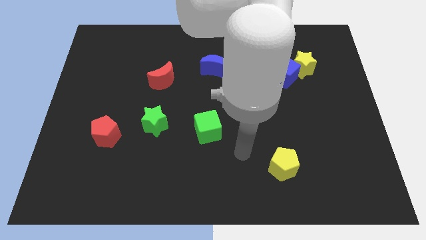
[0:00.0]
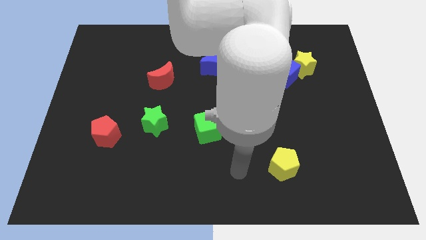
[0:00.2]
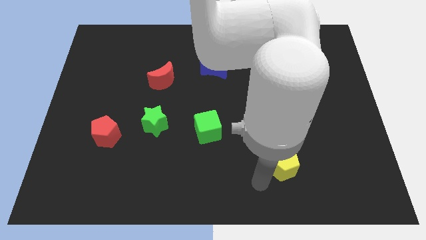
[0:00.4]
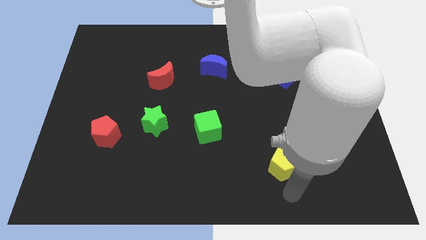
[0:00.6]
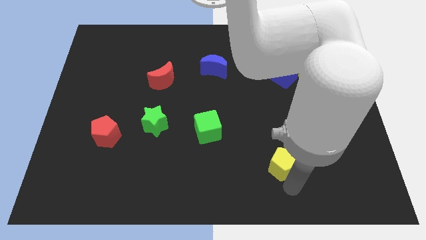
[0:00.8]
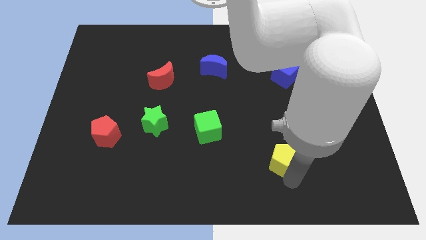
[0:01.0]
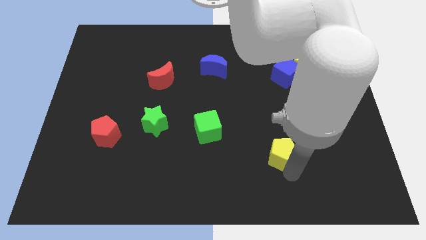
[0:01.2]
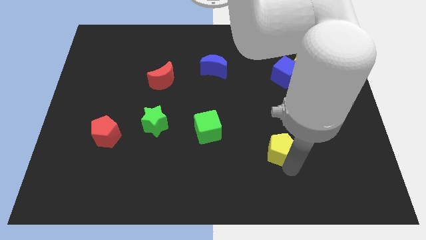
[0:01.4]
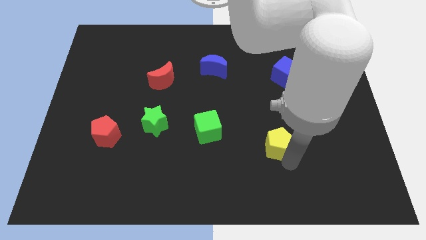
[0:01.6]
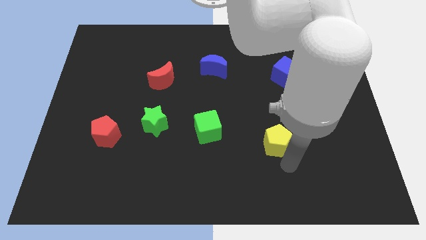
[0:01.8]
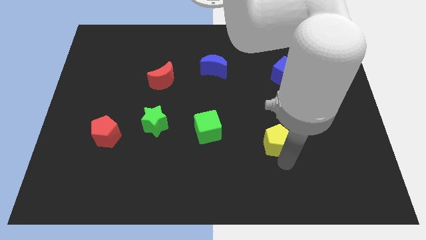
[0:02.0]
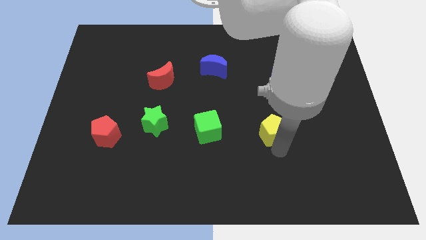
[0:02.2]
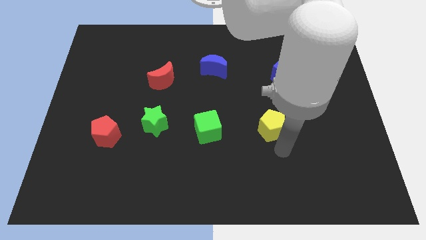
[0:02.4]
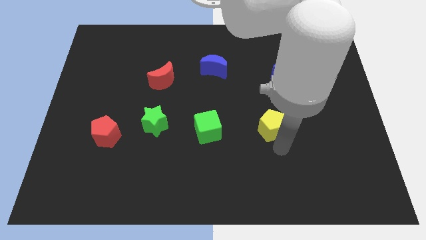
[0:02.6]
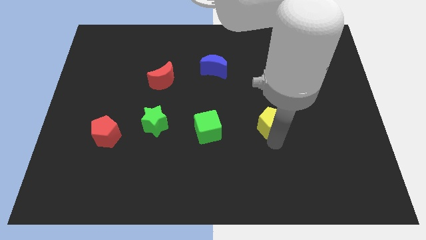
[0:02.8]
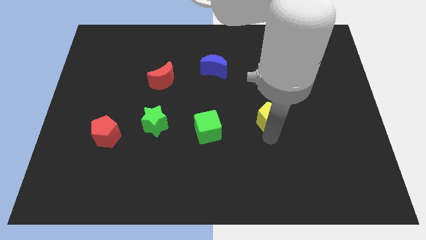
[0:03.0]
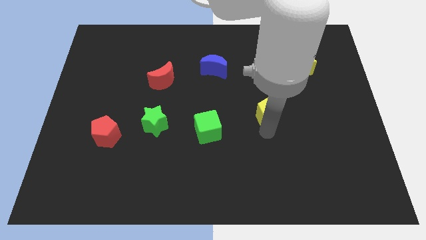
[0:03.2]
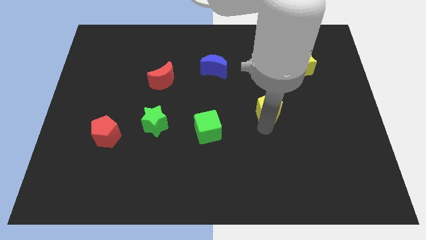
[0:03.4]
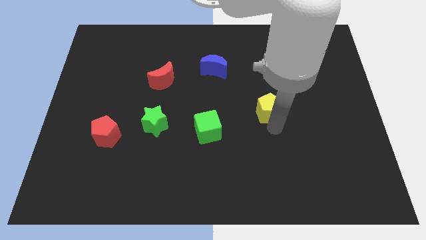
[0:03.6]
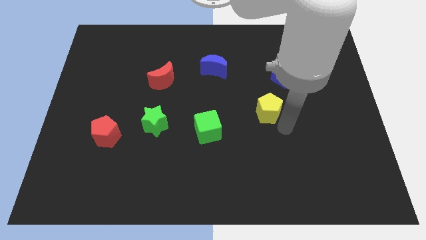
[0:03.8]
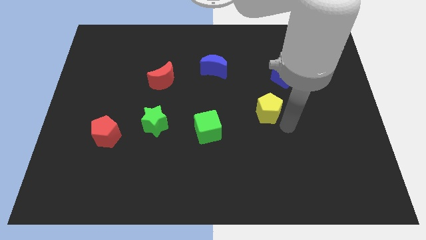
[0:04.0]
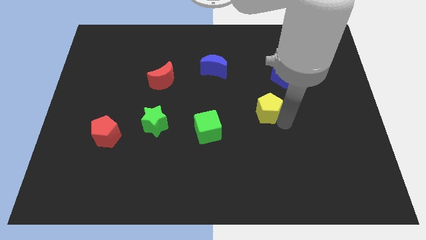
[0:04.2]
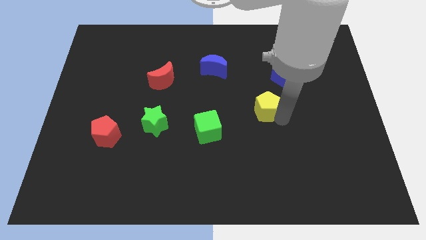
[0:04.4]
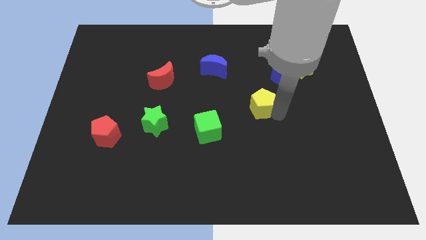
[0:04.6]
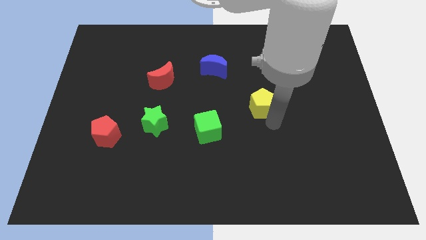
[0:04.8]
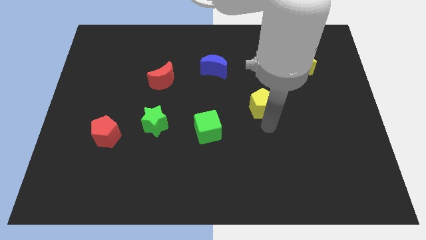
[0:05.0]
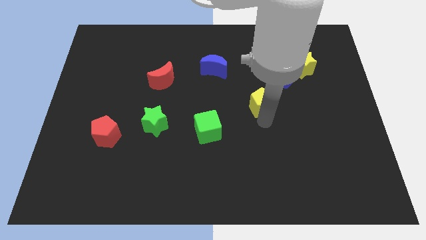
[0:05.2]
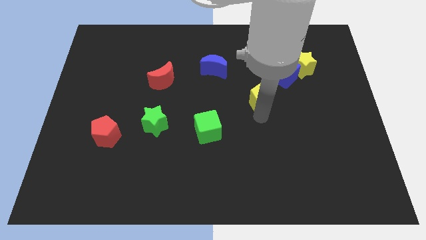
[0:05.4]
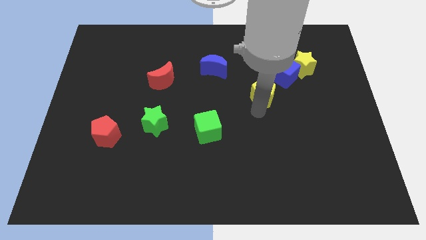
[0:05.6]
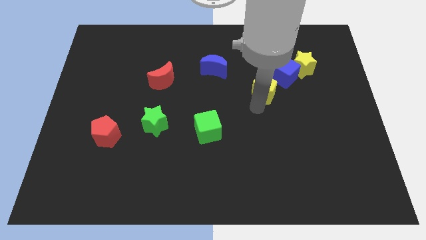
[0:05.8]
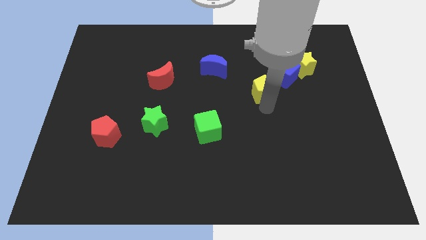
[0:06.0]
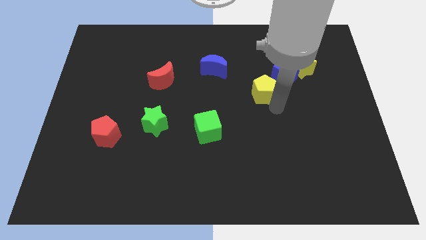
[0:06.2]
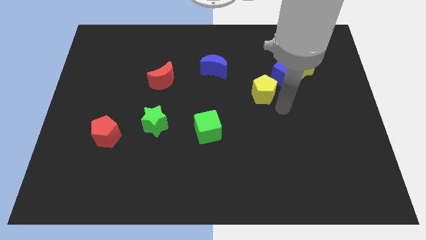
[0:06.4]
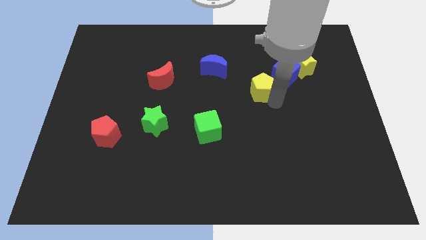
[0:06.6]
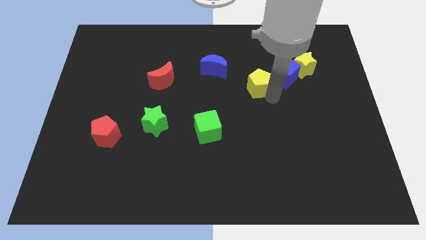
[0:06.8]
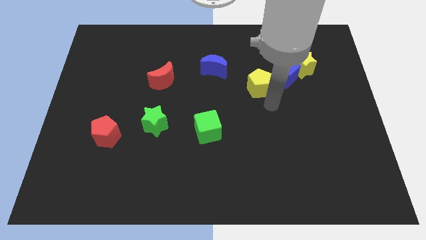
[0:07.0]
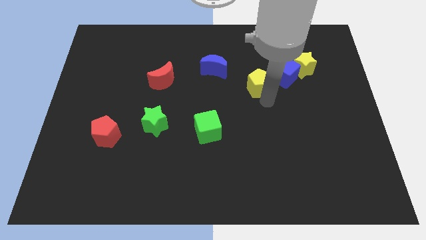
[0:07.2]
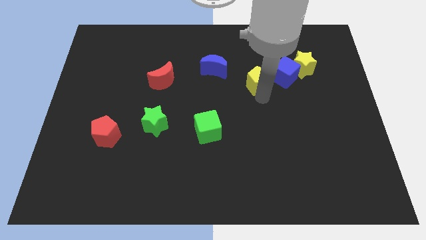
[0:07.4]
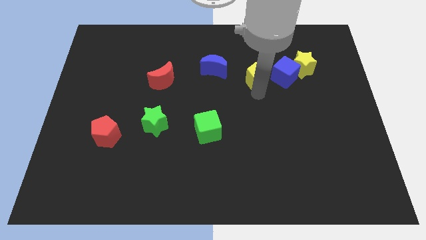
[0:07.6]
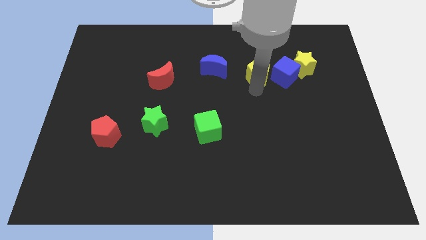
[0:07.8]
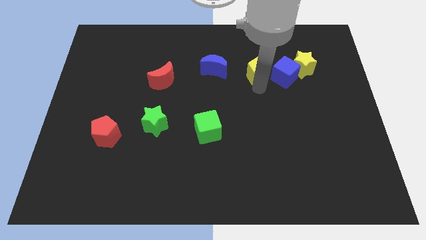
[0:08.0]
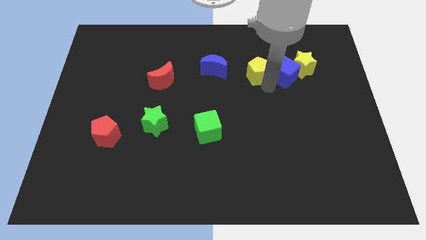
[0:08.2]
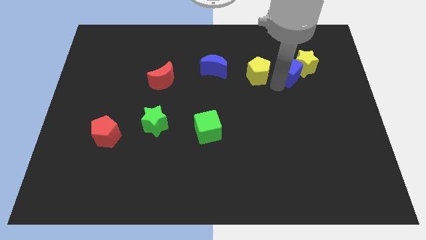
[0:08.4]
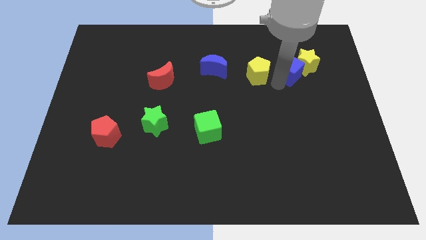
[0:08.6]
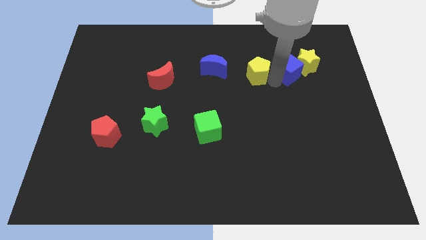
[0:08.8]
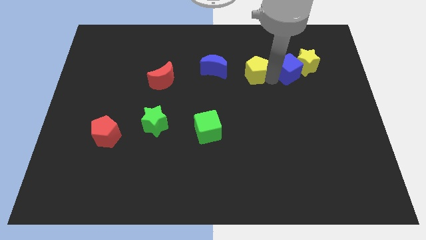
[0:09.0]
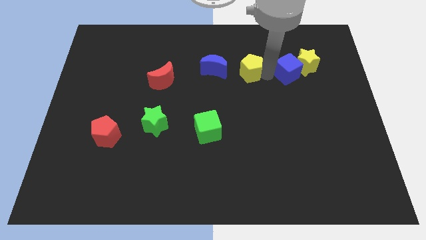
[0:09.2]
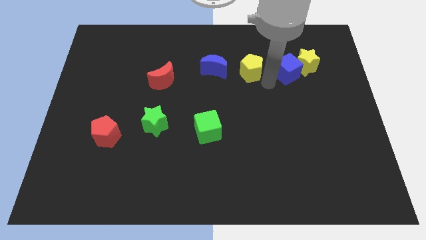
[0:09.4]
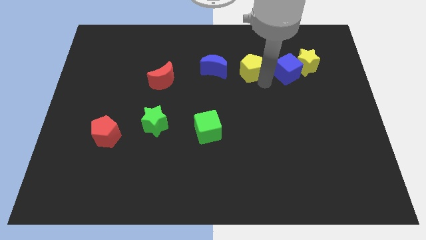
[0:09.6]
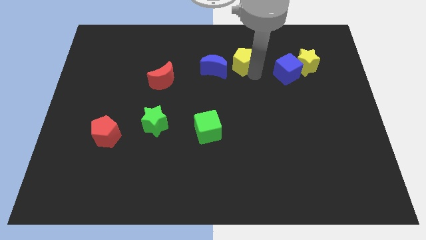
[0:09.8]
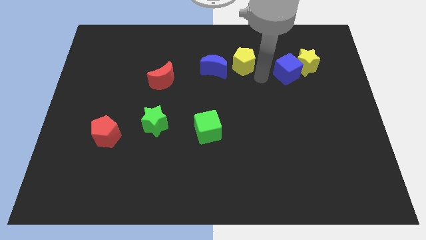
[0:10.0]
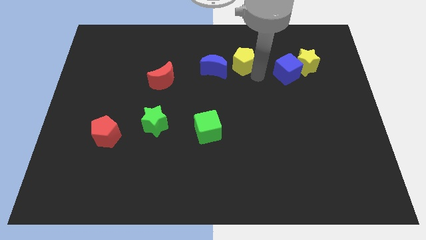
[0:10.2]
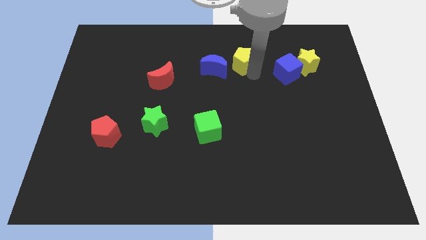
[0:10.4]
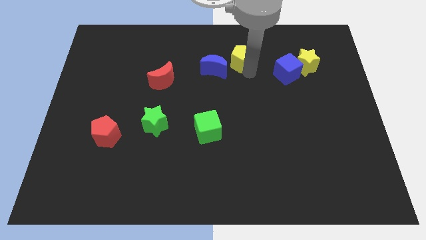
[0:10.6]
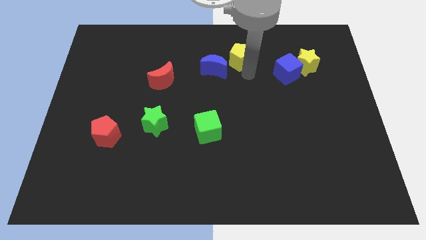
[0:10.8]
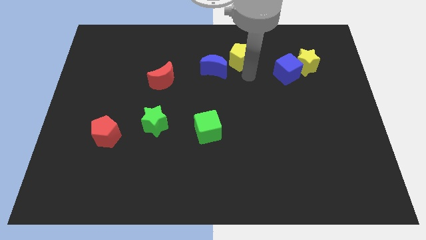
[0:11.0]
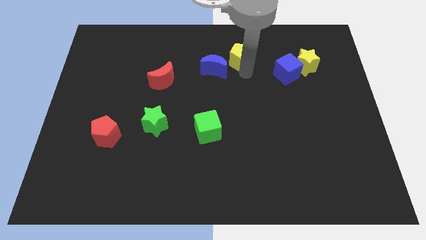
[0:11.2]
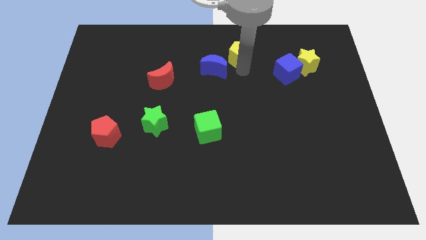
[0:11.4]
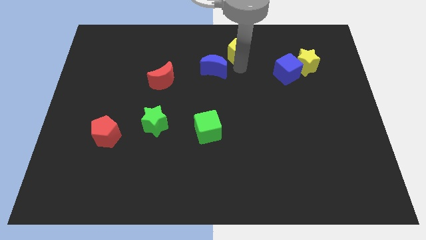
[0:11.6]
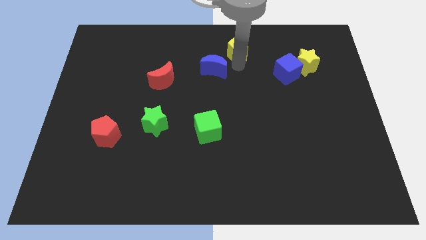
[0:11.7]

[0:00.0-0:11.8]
move the yellow pentagon to the top side

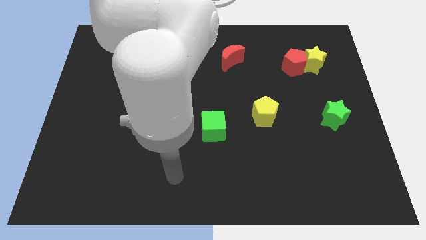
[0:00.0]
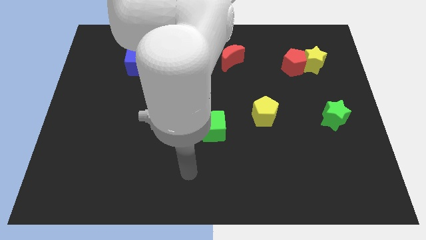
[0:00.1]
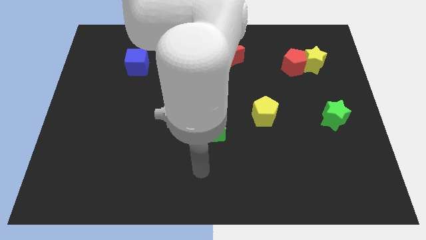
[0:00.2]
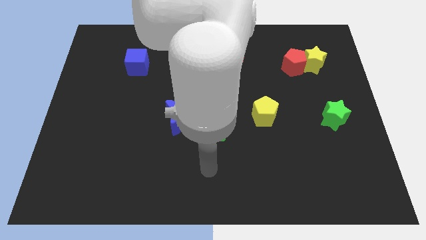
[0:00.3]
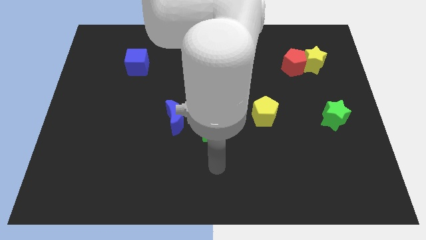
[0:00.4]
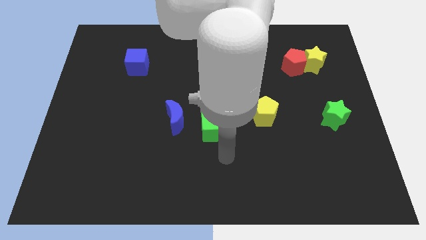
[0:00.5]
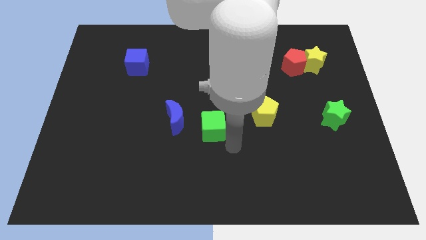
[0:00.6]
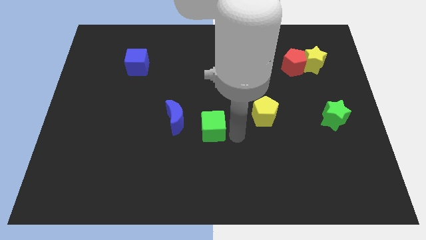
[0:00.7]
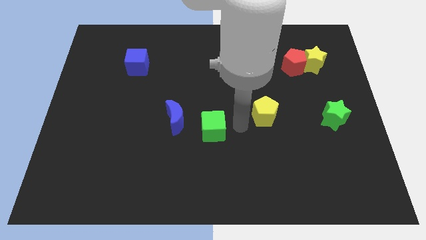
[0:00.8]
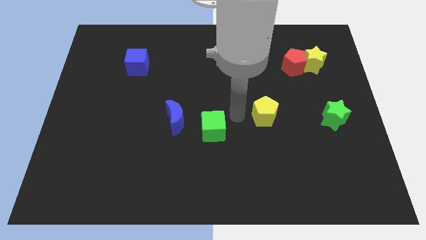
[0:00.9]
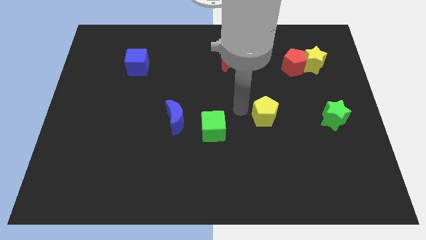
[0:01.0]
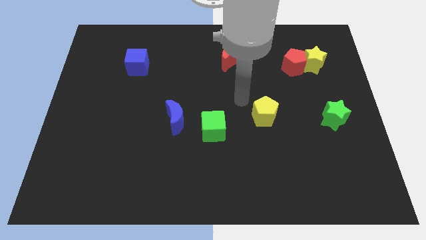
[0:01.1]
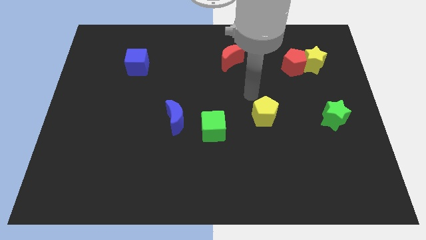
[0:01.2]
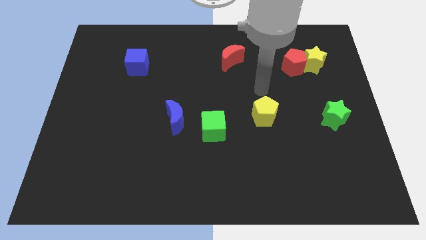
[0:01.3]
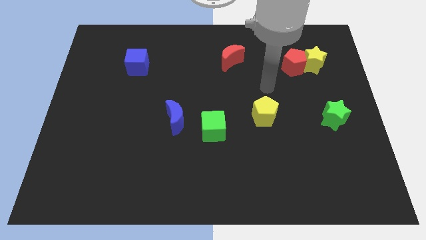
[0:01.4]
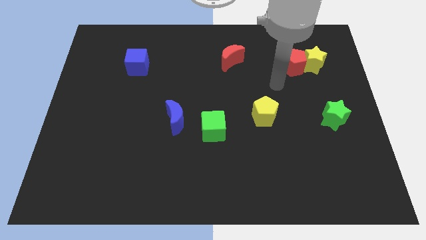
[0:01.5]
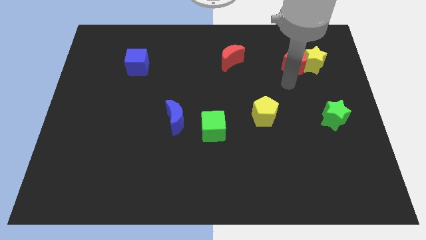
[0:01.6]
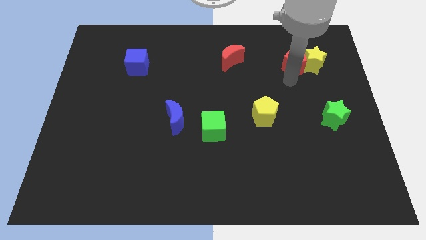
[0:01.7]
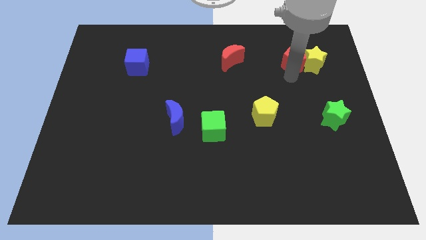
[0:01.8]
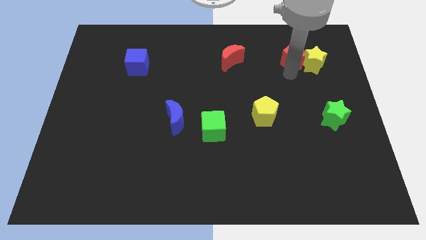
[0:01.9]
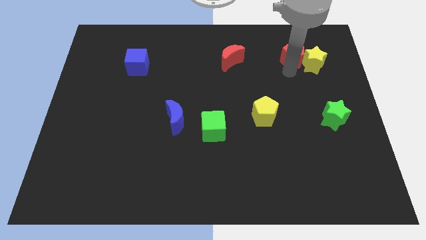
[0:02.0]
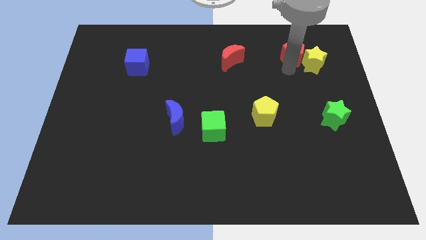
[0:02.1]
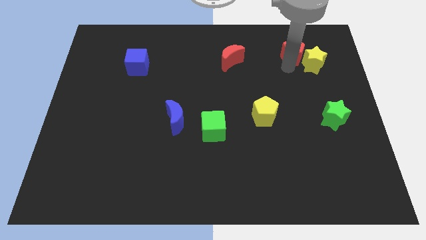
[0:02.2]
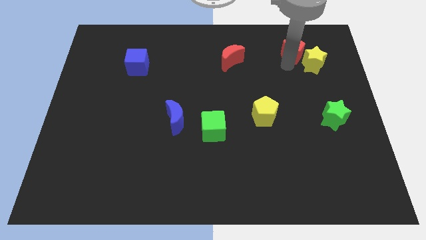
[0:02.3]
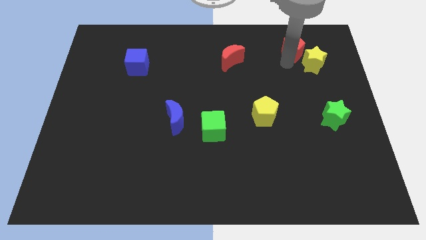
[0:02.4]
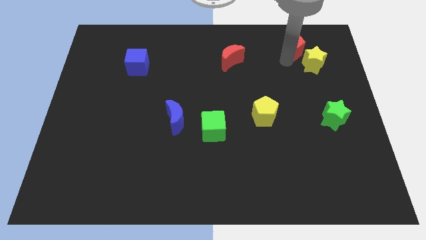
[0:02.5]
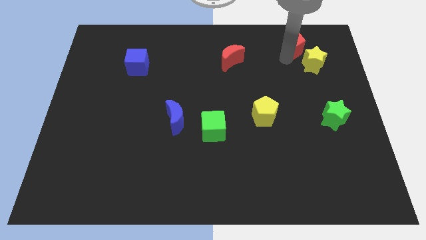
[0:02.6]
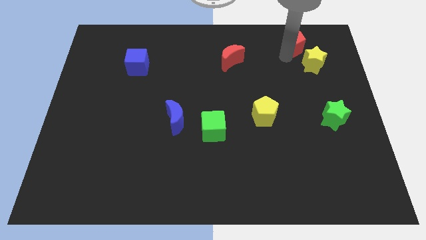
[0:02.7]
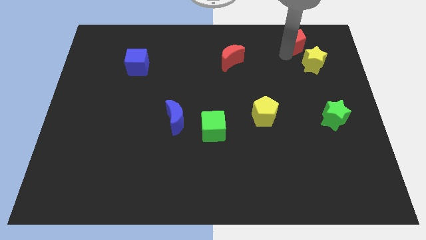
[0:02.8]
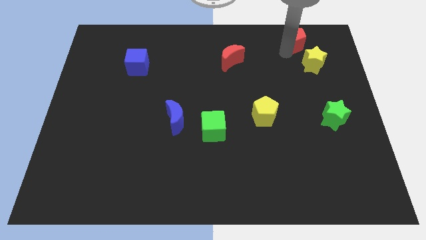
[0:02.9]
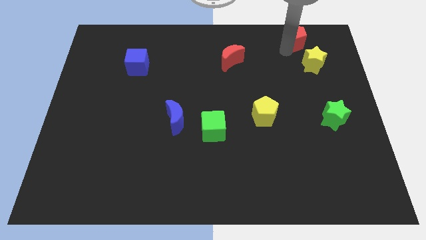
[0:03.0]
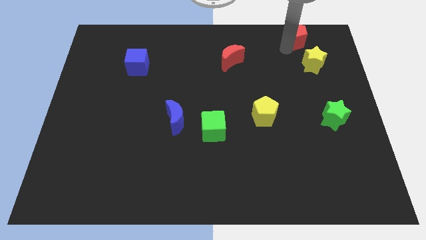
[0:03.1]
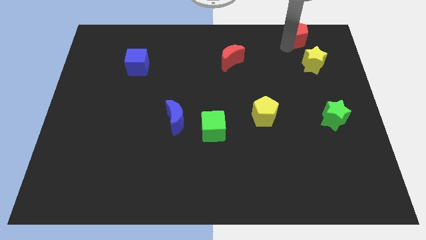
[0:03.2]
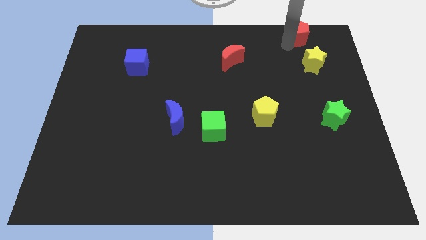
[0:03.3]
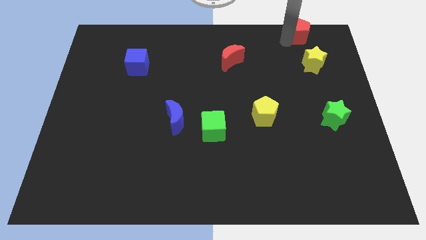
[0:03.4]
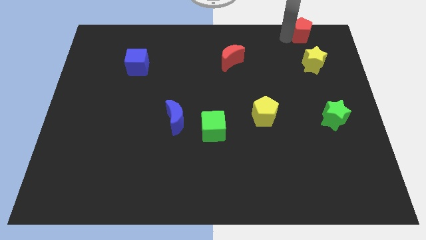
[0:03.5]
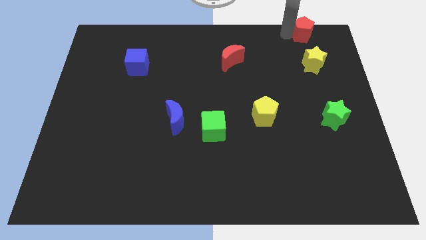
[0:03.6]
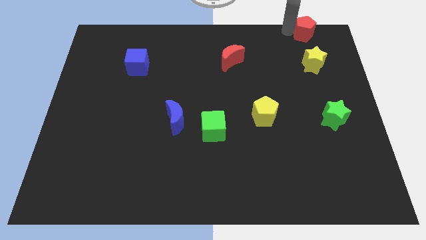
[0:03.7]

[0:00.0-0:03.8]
slide the red pentagon to the top right of the board
